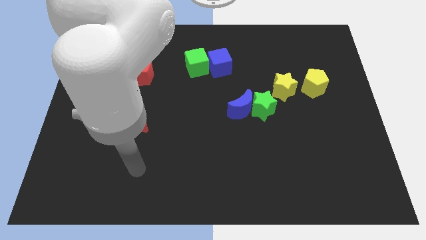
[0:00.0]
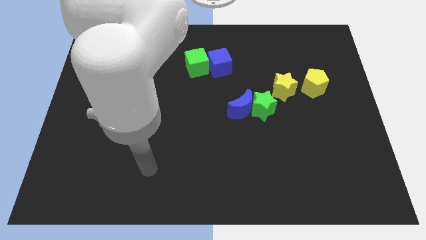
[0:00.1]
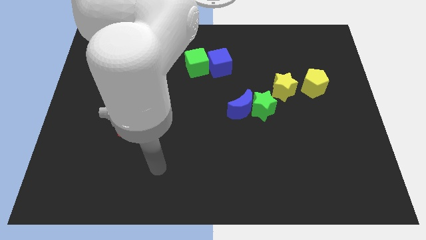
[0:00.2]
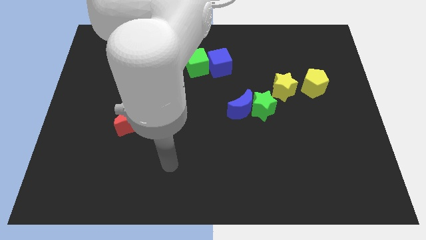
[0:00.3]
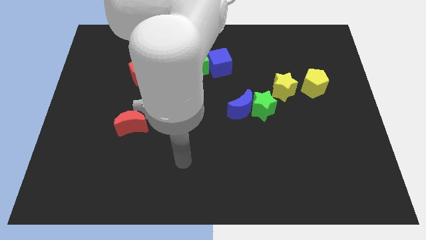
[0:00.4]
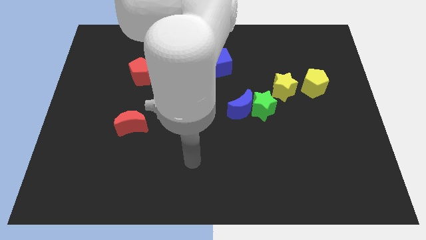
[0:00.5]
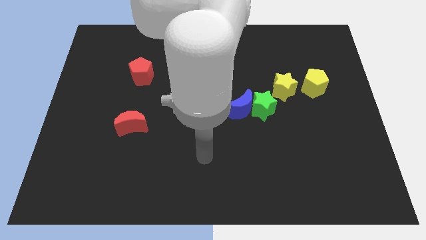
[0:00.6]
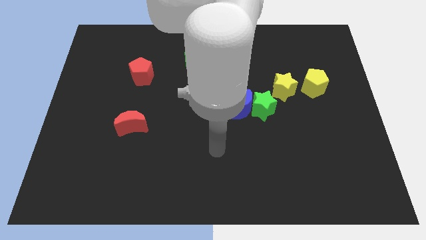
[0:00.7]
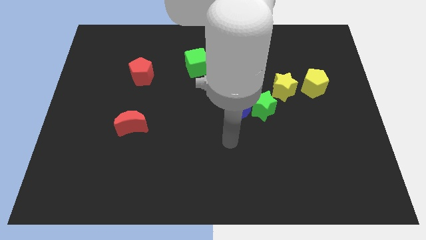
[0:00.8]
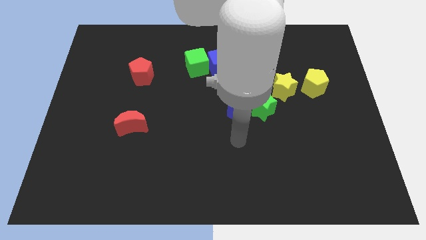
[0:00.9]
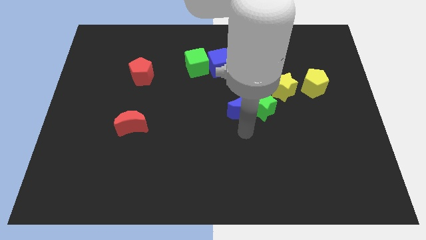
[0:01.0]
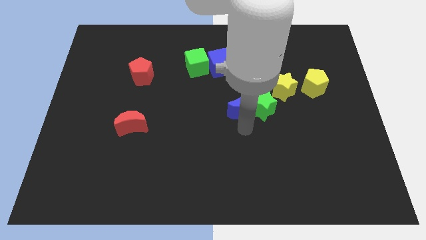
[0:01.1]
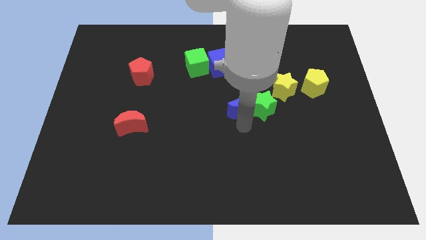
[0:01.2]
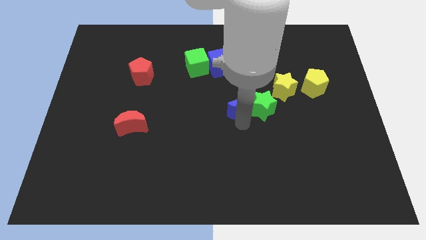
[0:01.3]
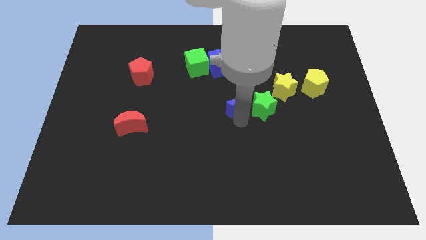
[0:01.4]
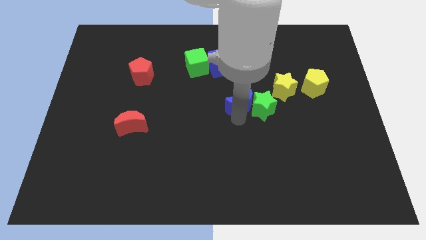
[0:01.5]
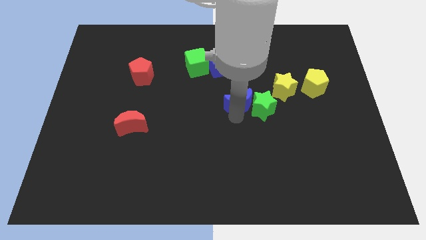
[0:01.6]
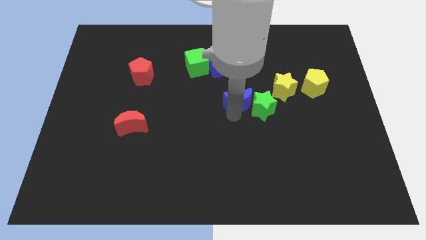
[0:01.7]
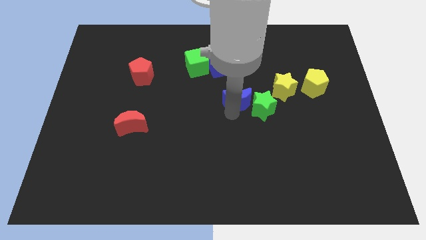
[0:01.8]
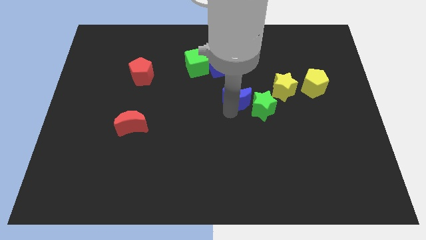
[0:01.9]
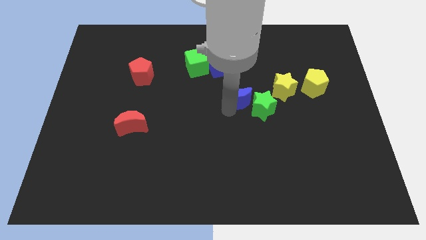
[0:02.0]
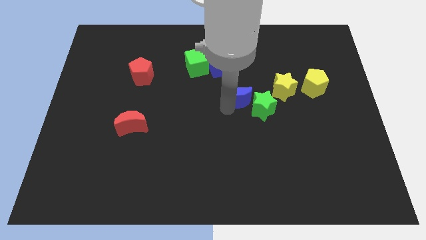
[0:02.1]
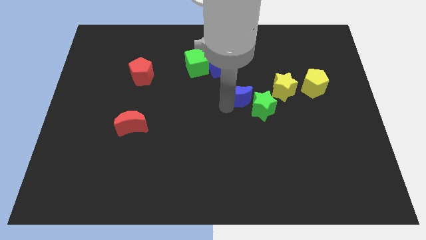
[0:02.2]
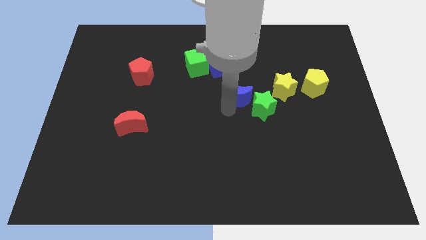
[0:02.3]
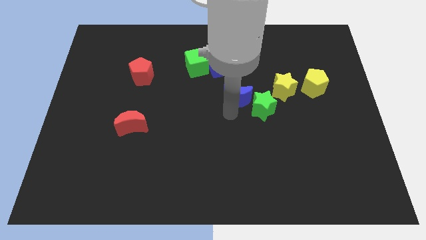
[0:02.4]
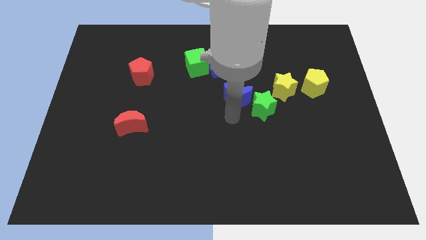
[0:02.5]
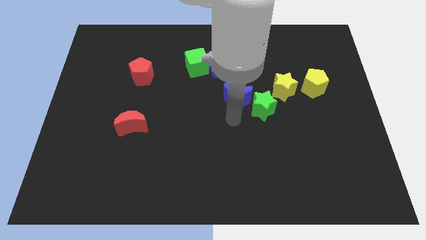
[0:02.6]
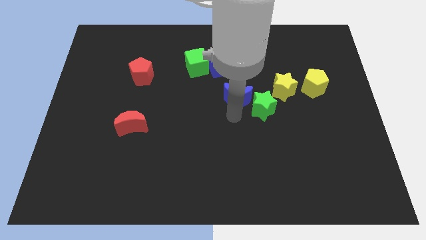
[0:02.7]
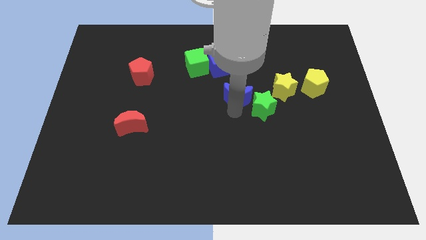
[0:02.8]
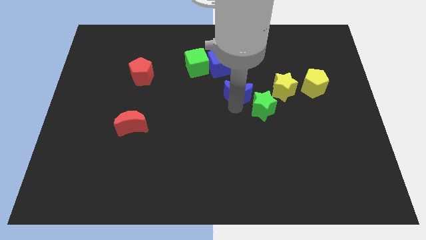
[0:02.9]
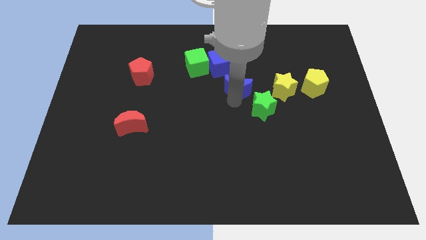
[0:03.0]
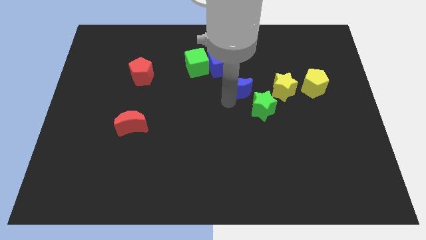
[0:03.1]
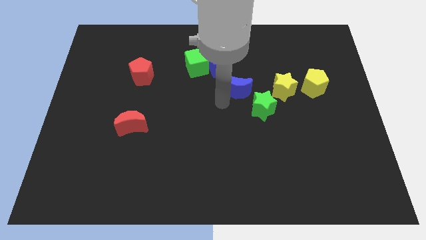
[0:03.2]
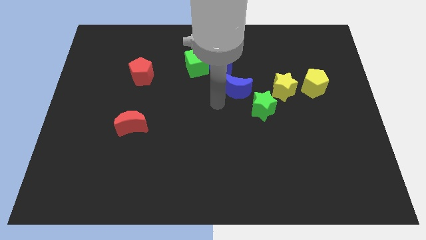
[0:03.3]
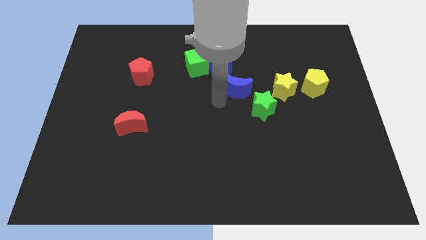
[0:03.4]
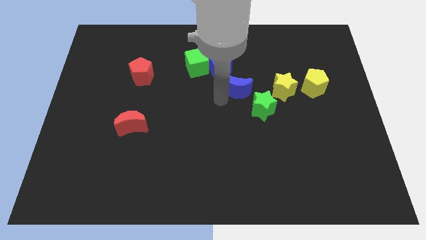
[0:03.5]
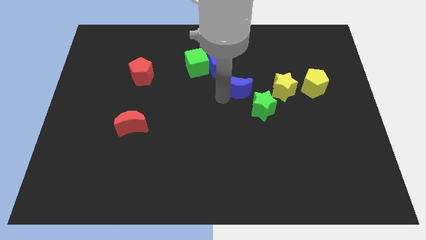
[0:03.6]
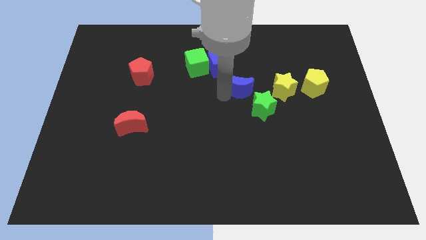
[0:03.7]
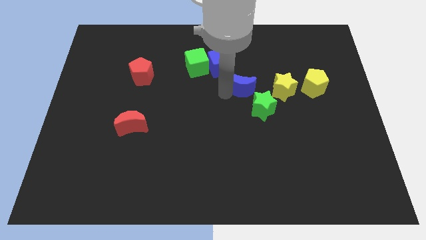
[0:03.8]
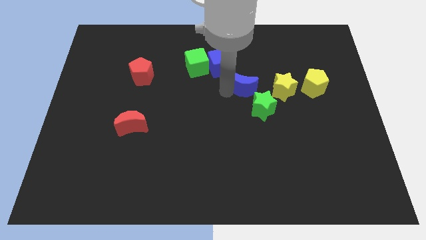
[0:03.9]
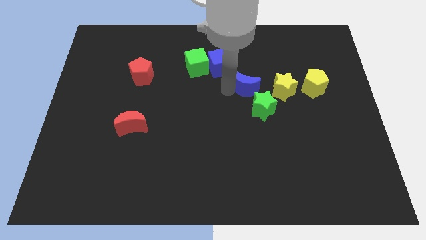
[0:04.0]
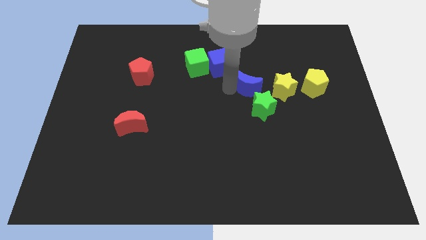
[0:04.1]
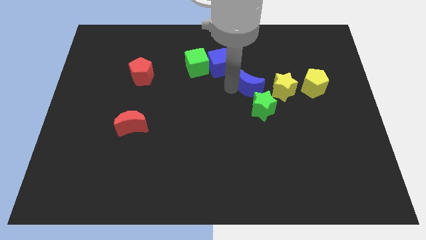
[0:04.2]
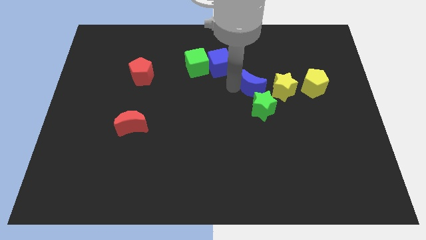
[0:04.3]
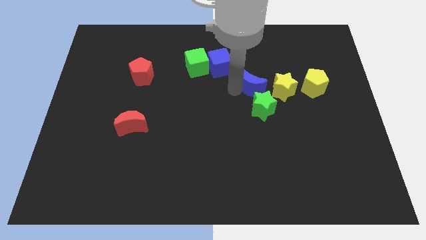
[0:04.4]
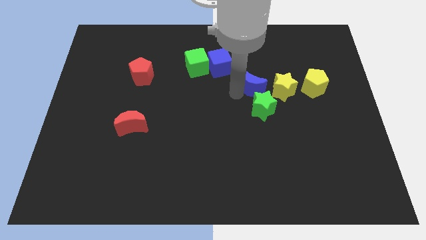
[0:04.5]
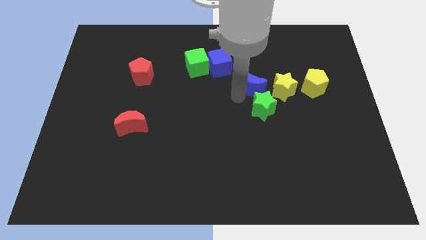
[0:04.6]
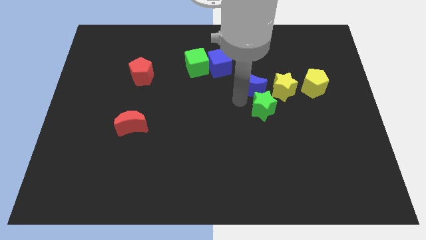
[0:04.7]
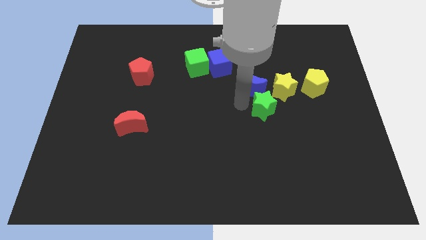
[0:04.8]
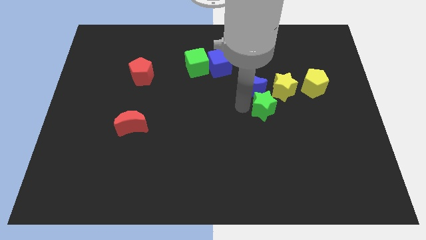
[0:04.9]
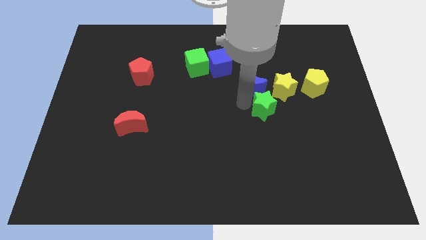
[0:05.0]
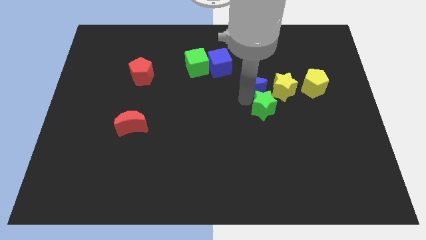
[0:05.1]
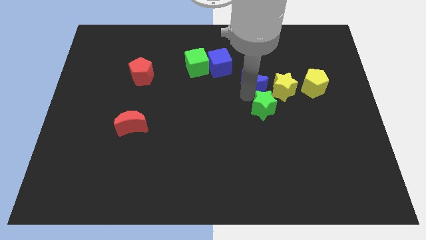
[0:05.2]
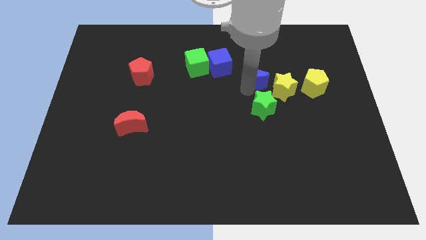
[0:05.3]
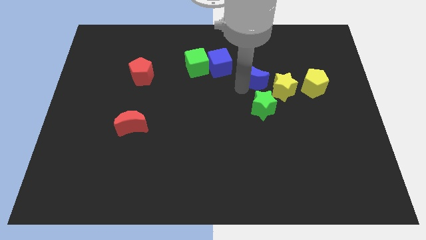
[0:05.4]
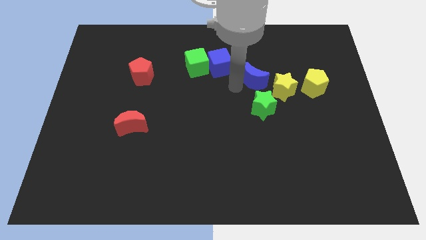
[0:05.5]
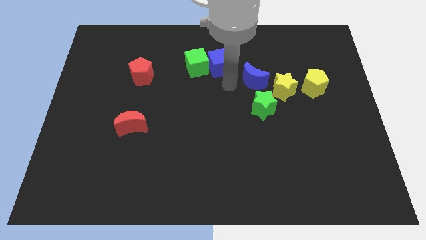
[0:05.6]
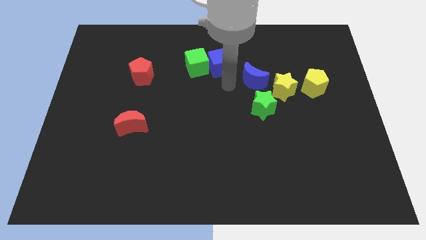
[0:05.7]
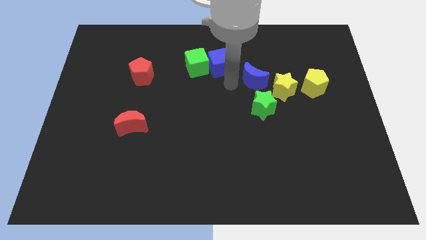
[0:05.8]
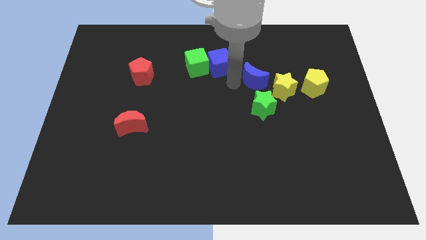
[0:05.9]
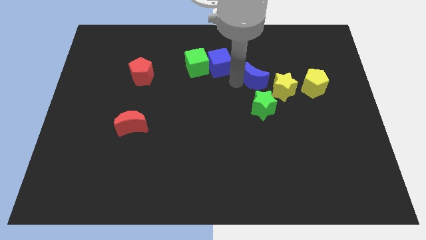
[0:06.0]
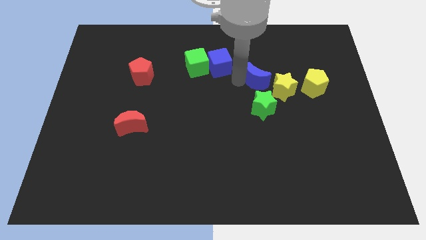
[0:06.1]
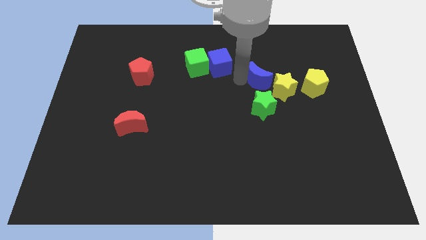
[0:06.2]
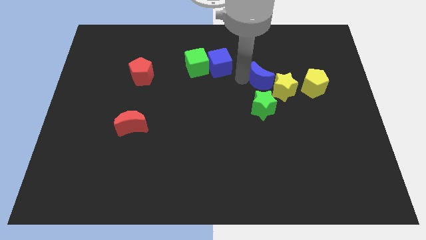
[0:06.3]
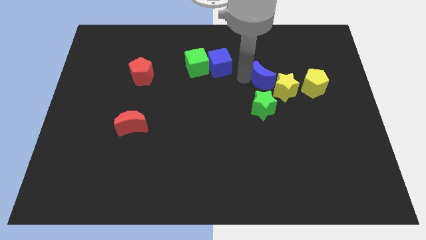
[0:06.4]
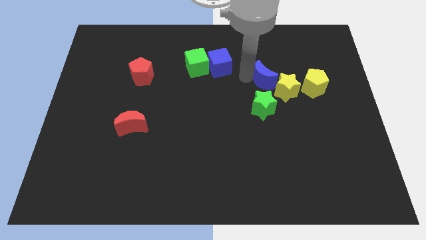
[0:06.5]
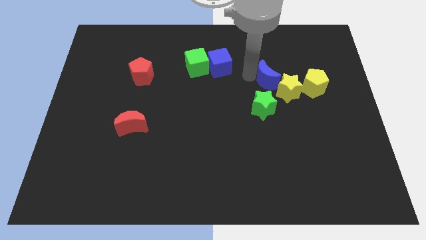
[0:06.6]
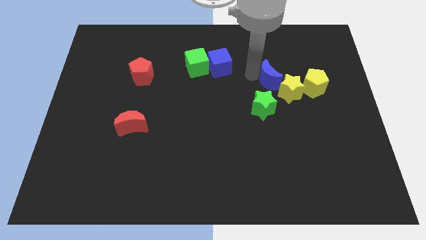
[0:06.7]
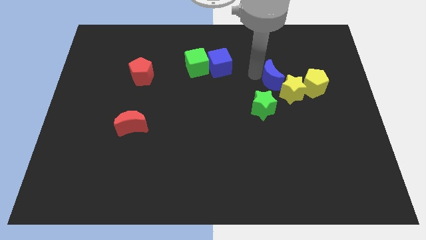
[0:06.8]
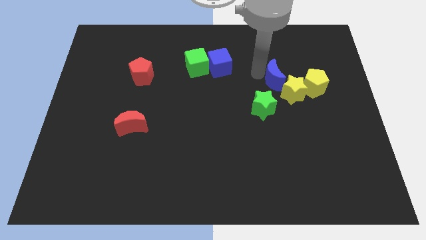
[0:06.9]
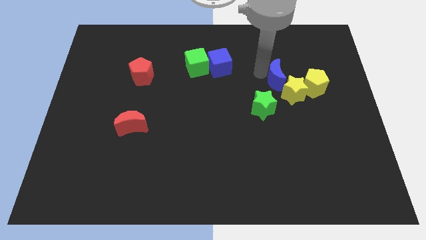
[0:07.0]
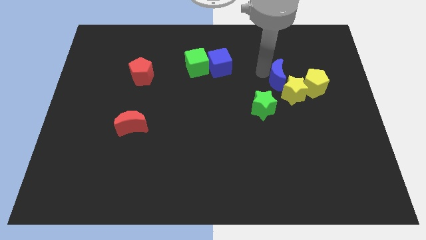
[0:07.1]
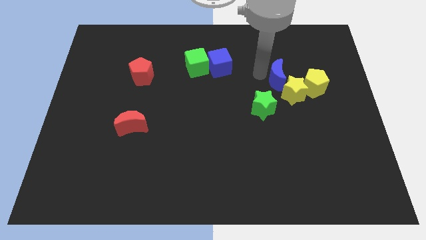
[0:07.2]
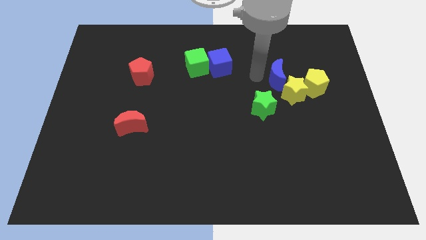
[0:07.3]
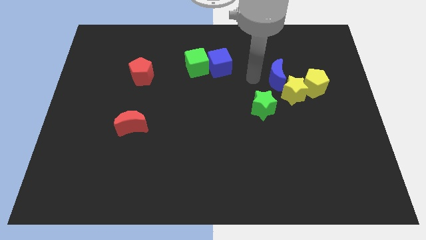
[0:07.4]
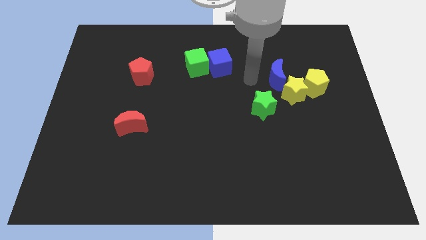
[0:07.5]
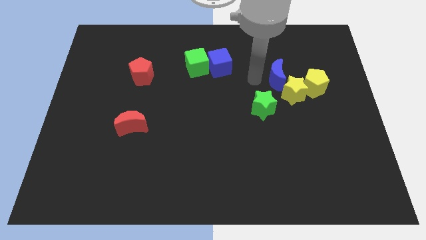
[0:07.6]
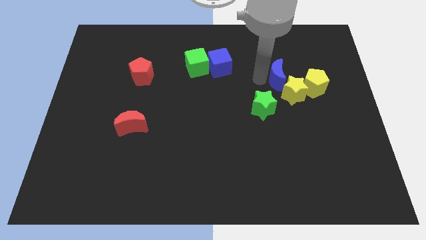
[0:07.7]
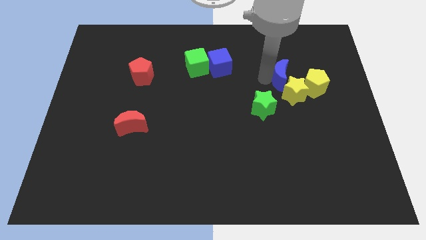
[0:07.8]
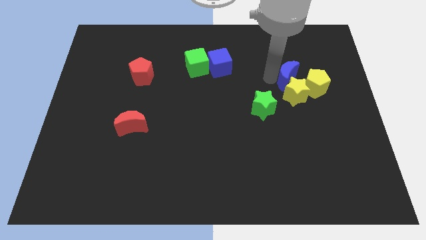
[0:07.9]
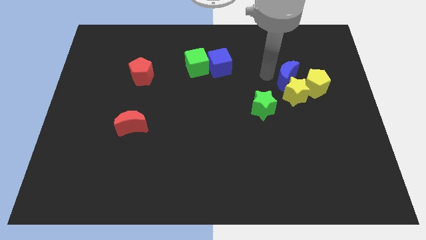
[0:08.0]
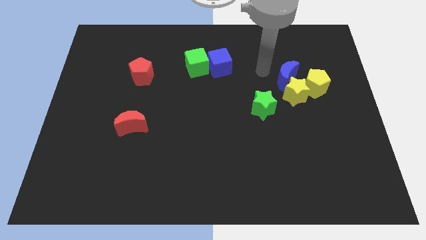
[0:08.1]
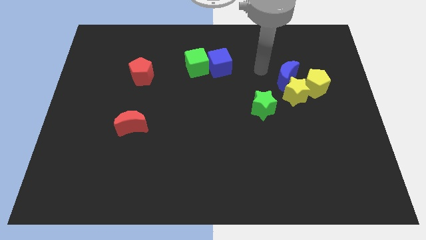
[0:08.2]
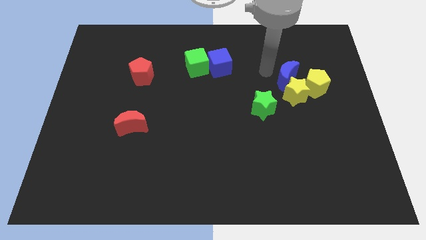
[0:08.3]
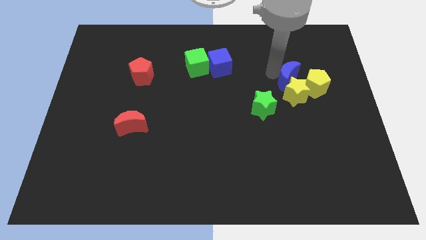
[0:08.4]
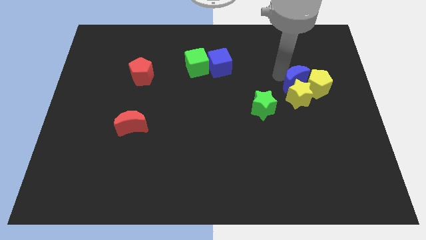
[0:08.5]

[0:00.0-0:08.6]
move the blue moon close to the yellow pentagon
